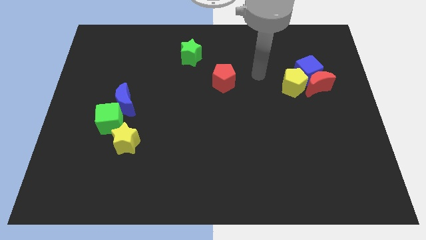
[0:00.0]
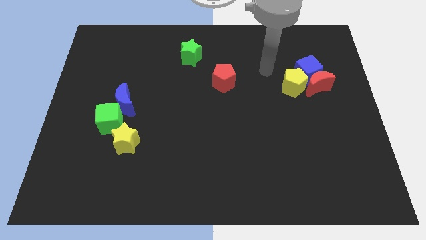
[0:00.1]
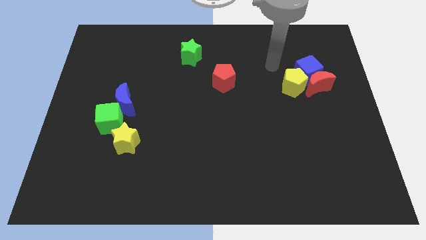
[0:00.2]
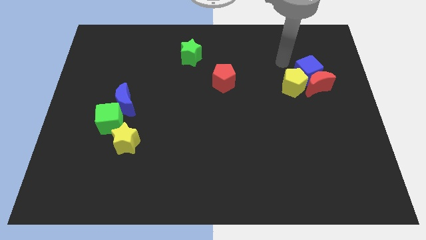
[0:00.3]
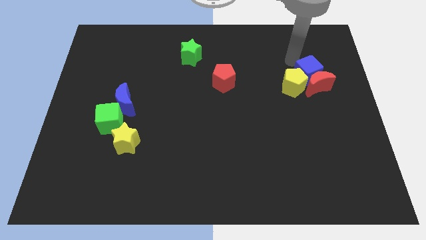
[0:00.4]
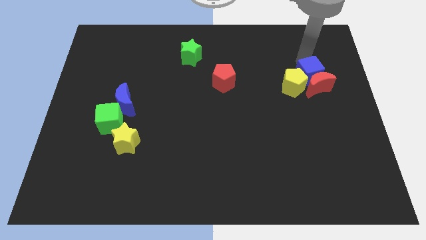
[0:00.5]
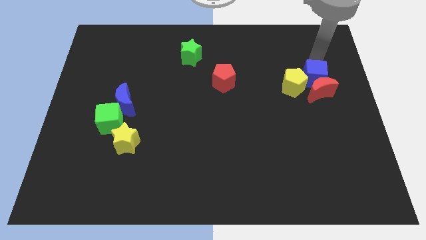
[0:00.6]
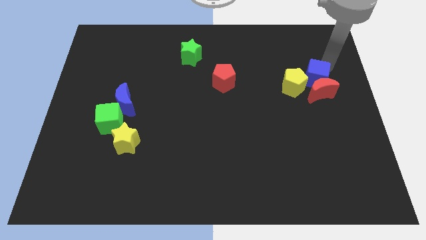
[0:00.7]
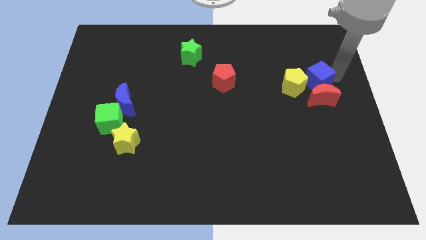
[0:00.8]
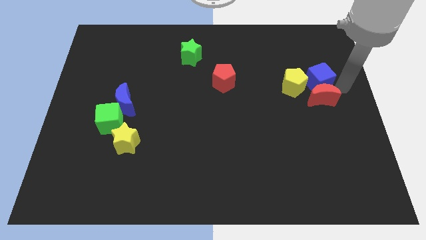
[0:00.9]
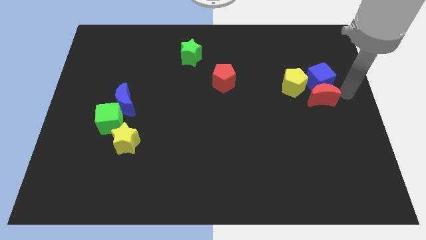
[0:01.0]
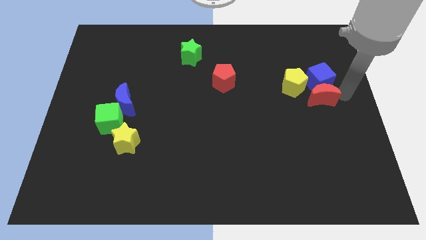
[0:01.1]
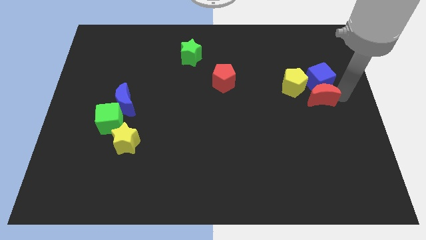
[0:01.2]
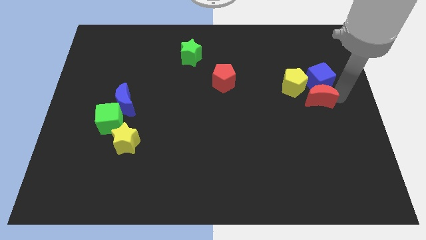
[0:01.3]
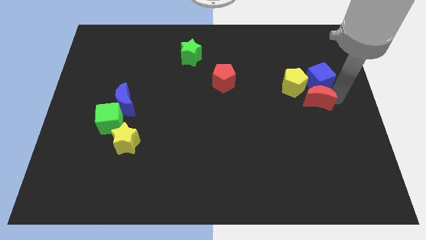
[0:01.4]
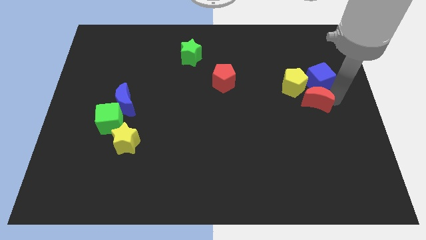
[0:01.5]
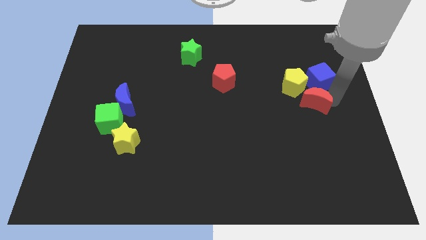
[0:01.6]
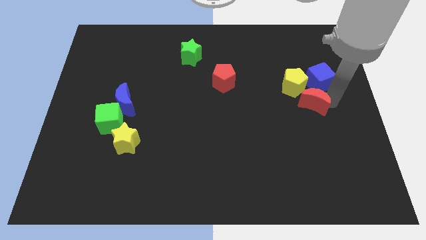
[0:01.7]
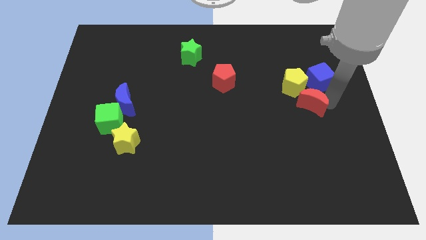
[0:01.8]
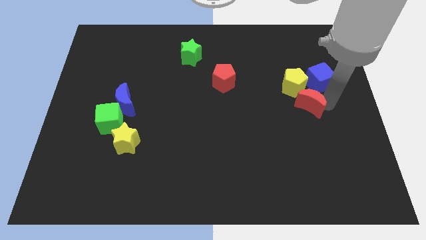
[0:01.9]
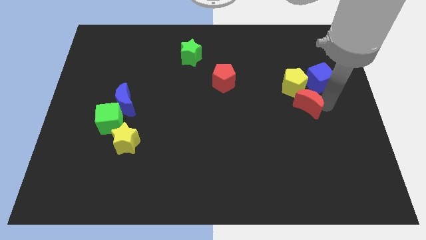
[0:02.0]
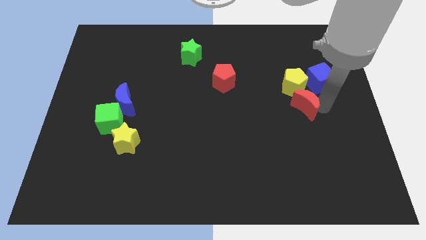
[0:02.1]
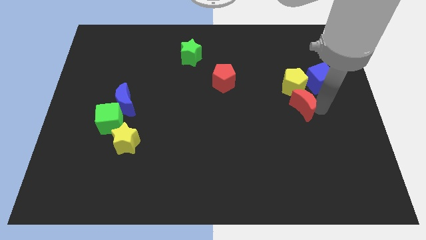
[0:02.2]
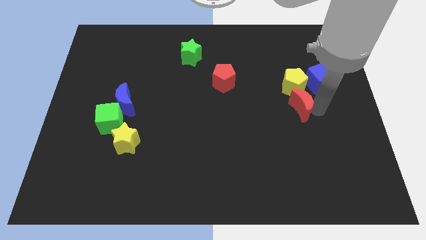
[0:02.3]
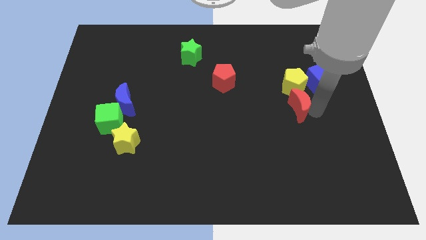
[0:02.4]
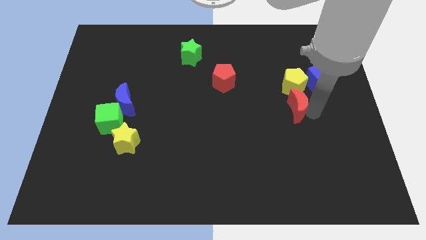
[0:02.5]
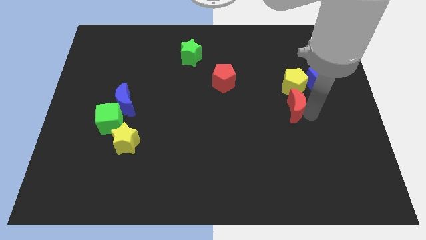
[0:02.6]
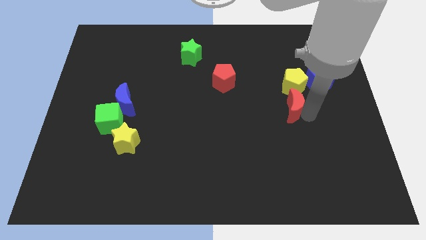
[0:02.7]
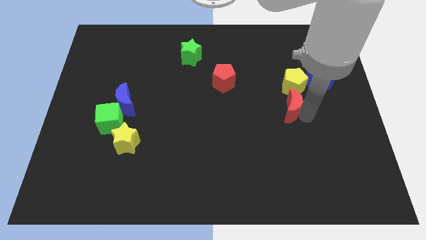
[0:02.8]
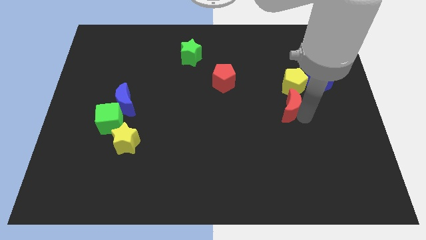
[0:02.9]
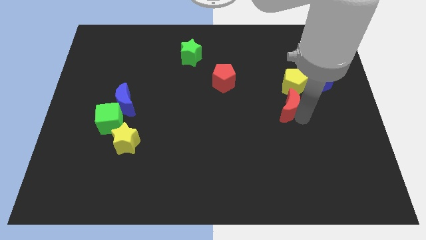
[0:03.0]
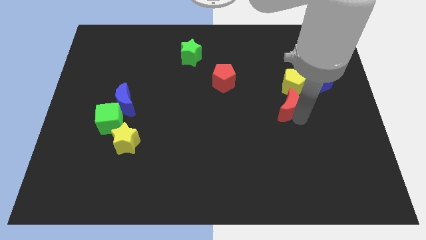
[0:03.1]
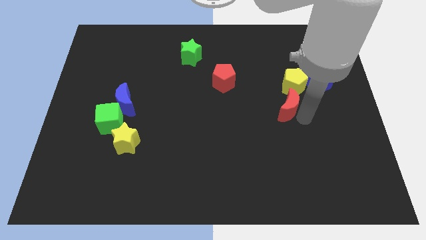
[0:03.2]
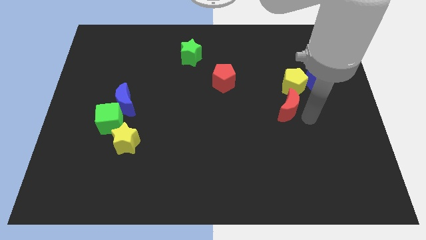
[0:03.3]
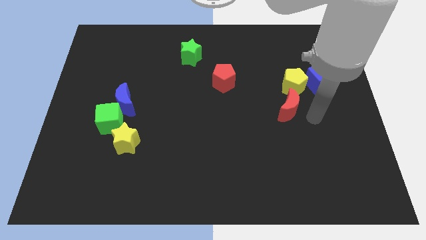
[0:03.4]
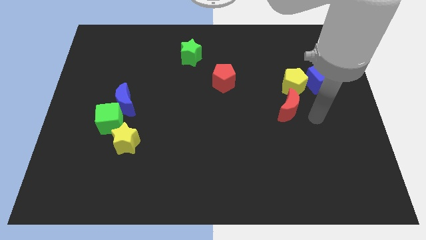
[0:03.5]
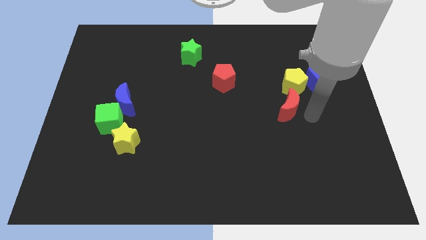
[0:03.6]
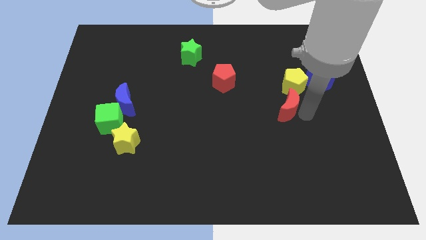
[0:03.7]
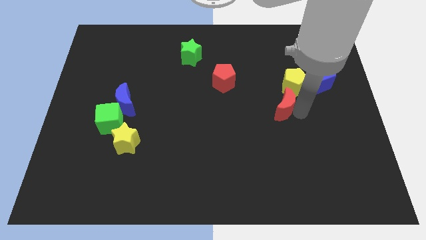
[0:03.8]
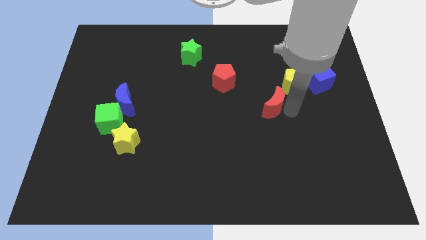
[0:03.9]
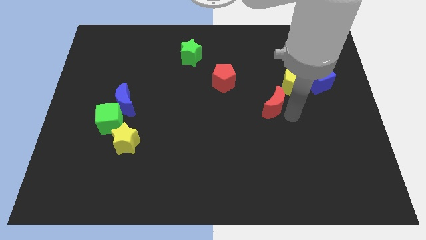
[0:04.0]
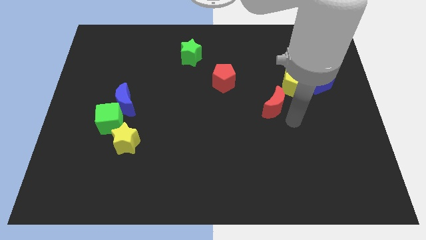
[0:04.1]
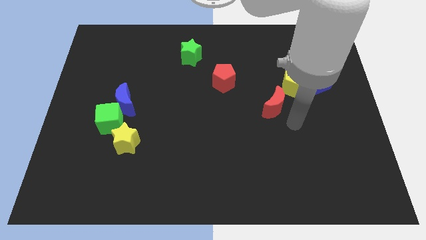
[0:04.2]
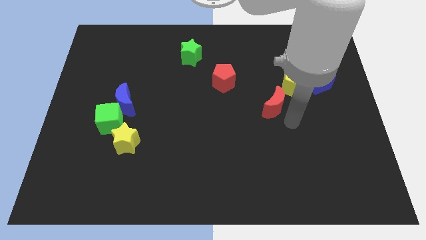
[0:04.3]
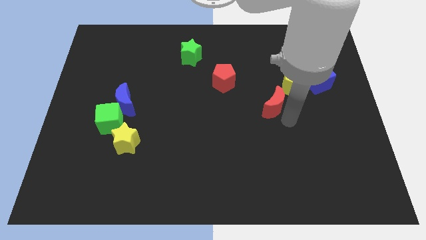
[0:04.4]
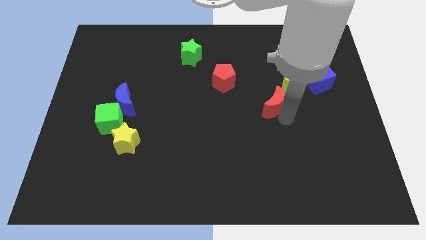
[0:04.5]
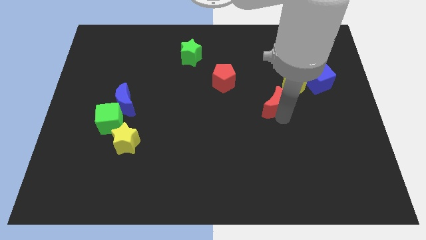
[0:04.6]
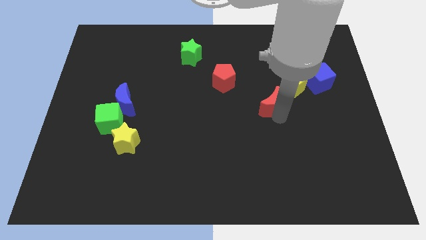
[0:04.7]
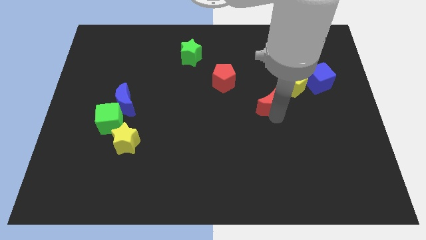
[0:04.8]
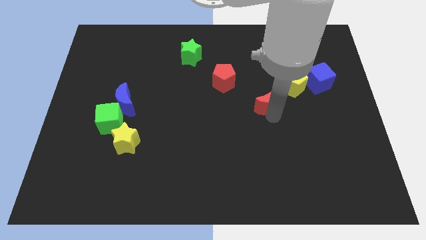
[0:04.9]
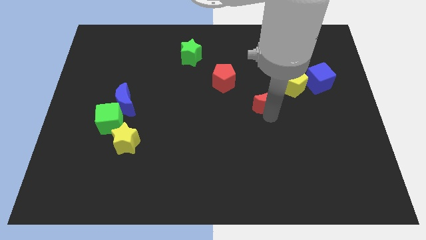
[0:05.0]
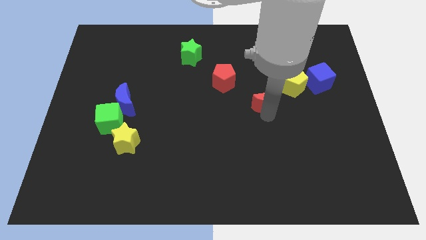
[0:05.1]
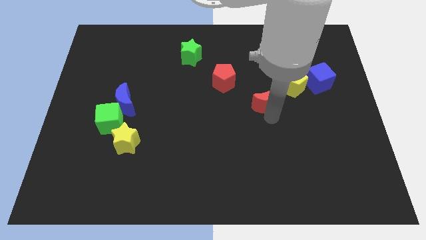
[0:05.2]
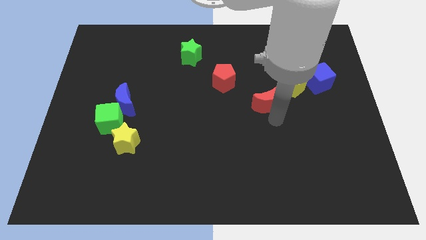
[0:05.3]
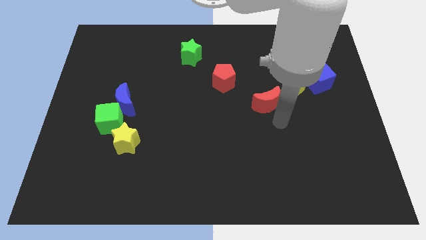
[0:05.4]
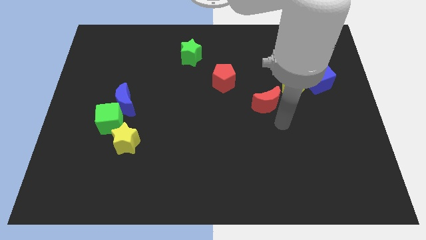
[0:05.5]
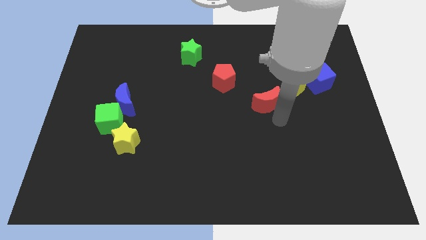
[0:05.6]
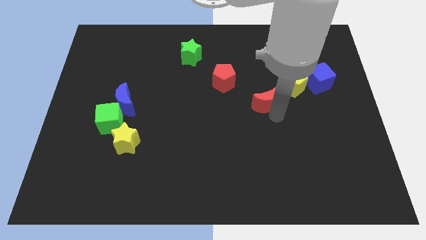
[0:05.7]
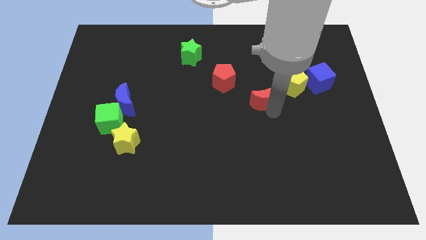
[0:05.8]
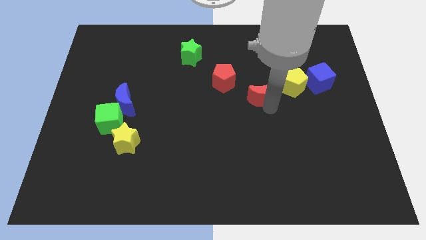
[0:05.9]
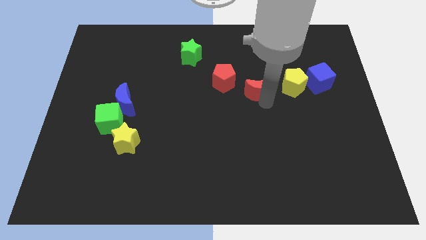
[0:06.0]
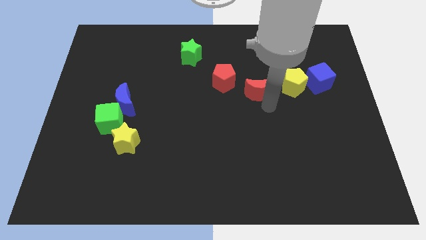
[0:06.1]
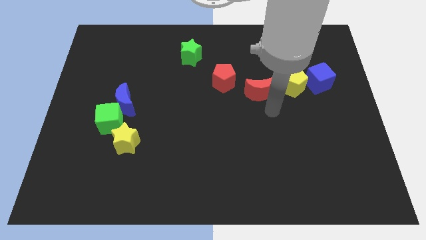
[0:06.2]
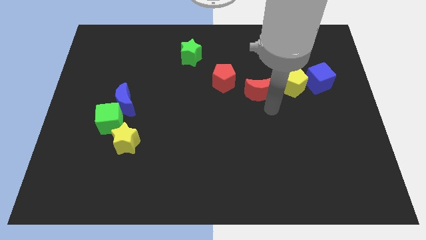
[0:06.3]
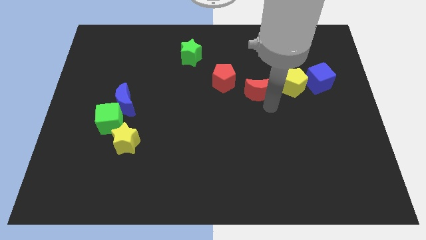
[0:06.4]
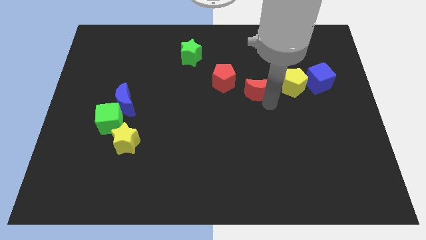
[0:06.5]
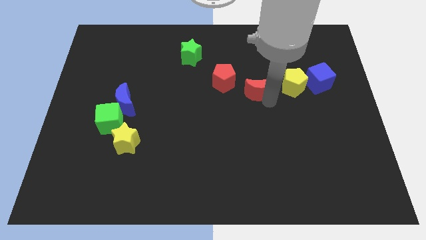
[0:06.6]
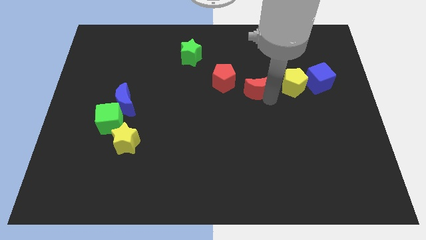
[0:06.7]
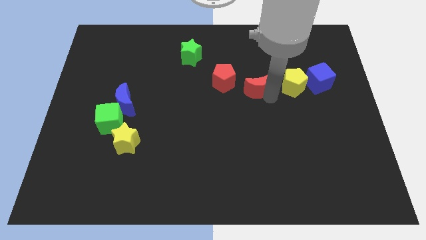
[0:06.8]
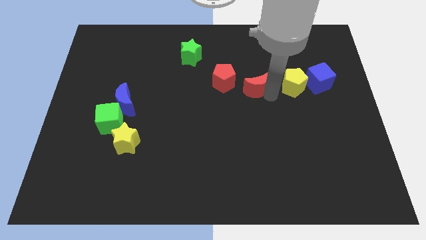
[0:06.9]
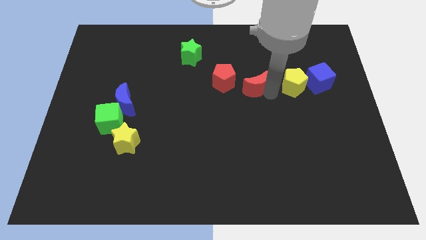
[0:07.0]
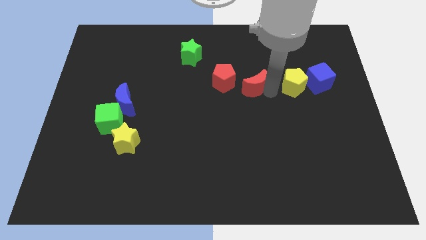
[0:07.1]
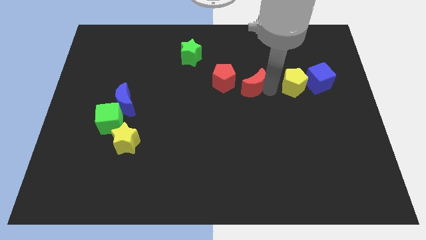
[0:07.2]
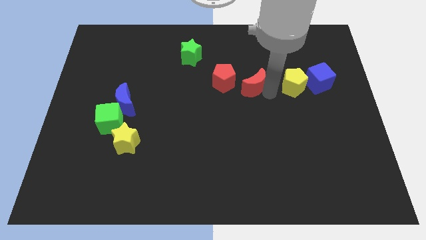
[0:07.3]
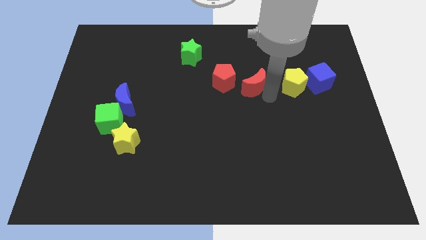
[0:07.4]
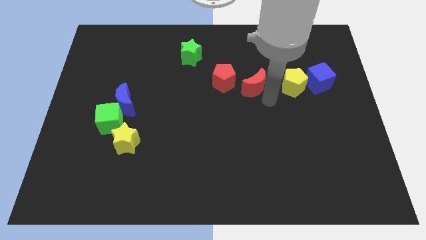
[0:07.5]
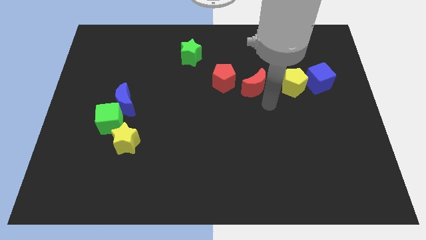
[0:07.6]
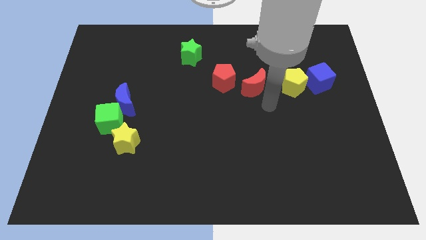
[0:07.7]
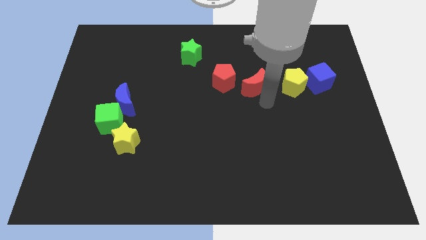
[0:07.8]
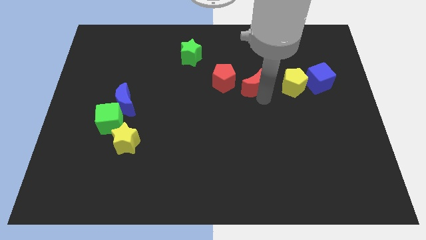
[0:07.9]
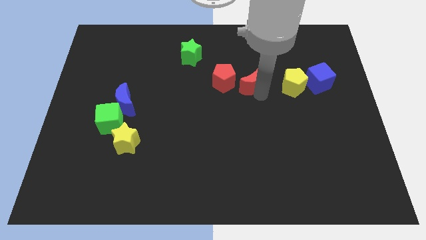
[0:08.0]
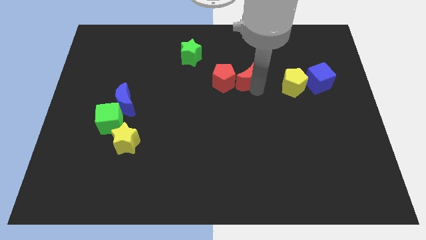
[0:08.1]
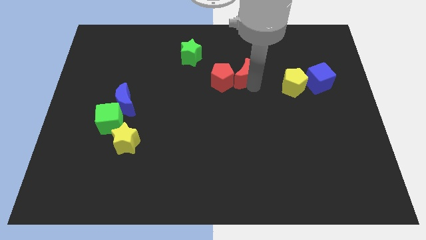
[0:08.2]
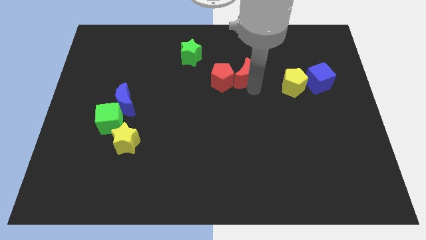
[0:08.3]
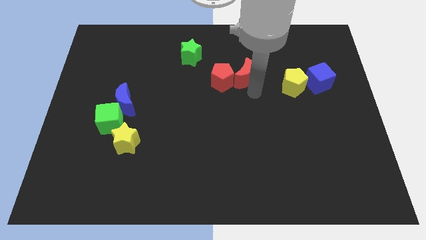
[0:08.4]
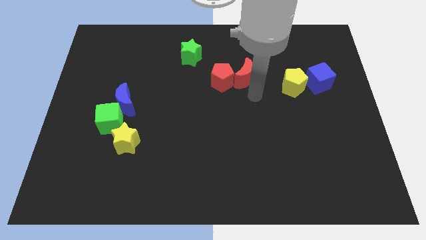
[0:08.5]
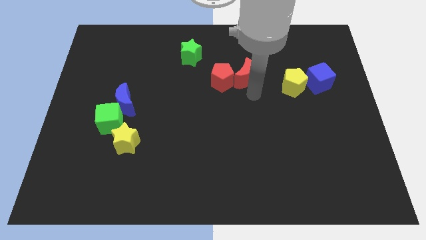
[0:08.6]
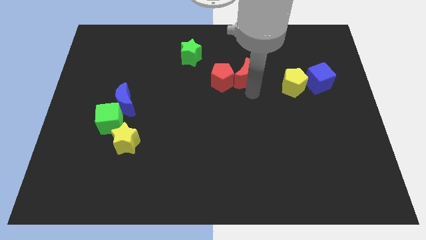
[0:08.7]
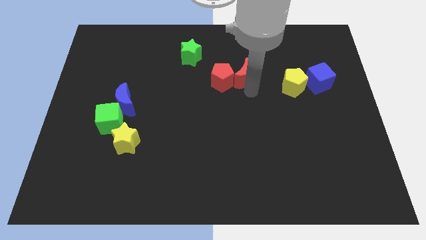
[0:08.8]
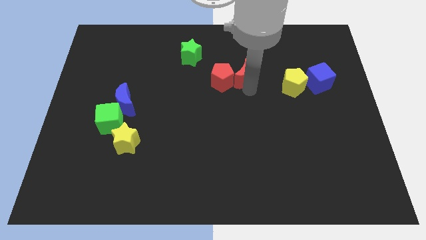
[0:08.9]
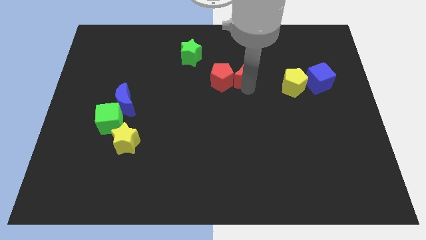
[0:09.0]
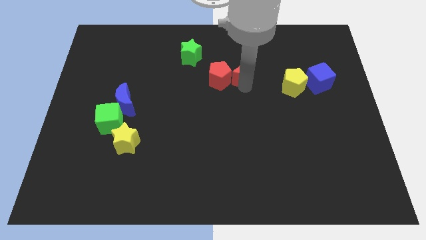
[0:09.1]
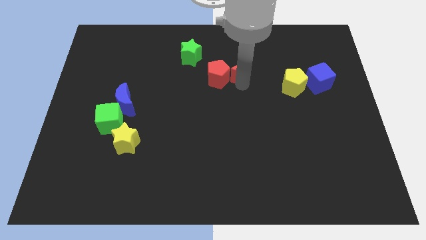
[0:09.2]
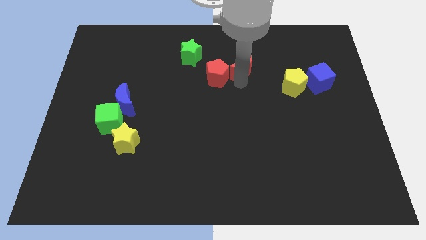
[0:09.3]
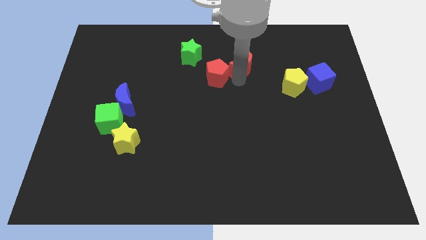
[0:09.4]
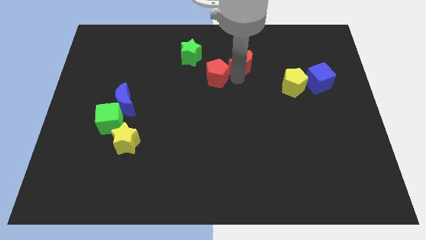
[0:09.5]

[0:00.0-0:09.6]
move the red moon just right of the green star
